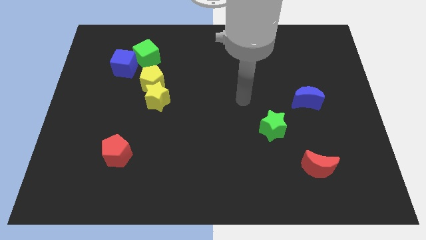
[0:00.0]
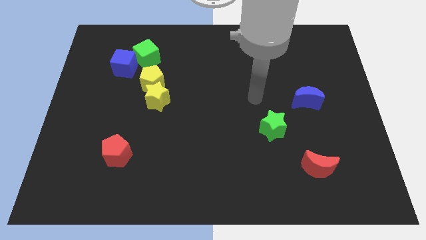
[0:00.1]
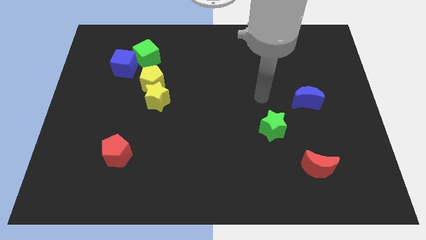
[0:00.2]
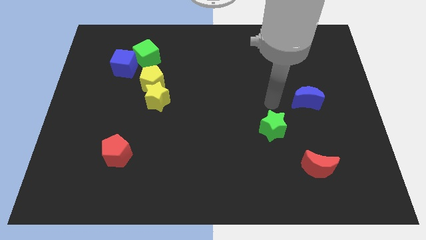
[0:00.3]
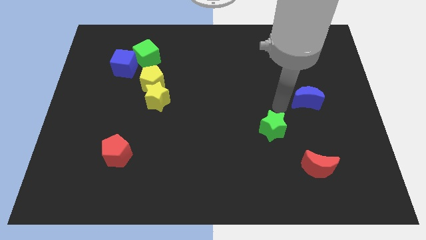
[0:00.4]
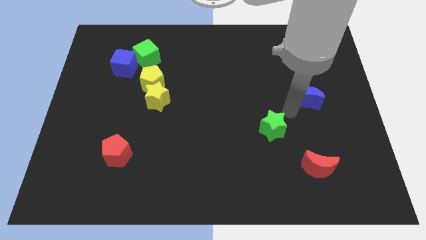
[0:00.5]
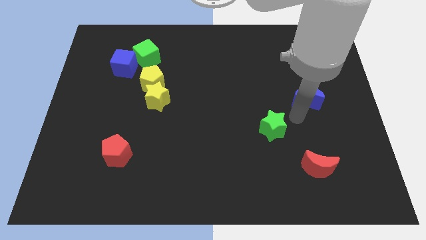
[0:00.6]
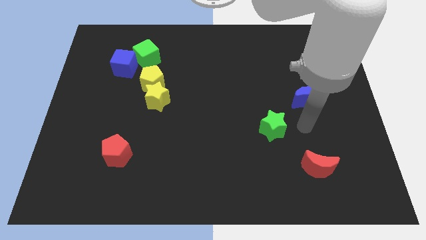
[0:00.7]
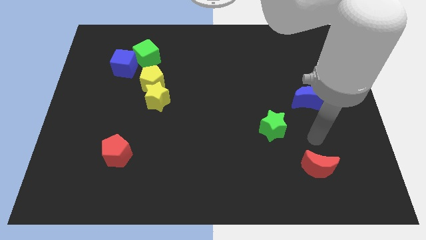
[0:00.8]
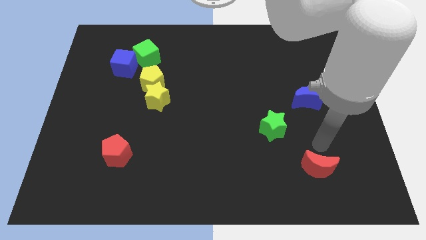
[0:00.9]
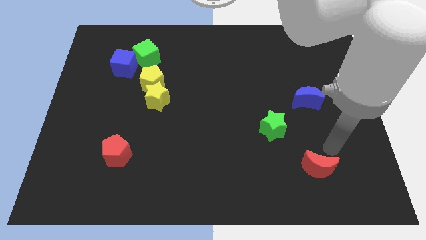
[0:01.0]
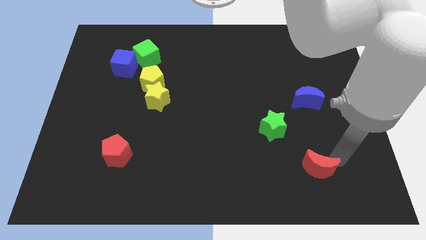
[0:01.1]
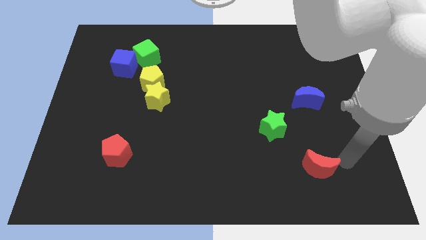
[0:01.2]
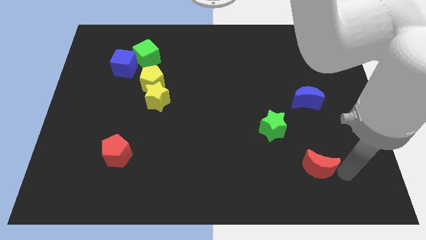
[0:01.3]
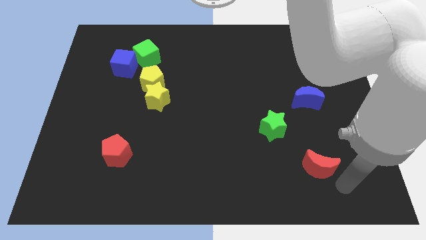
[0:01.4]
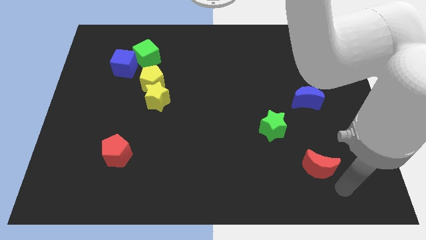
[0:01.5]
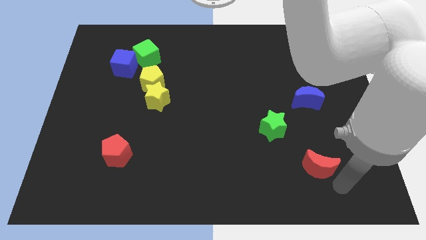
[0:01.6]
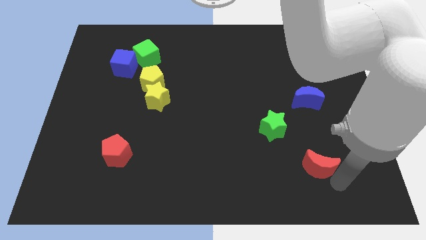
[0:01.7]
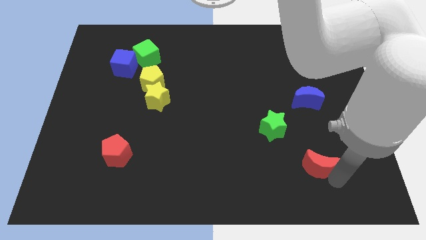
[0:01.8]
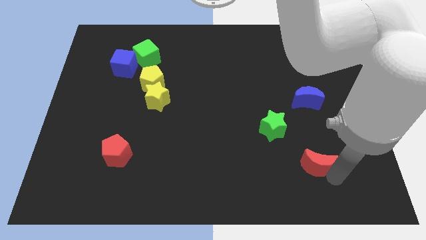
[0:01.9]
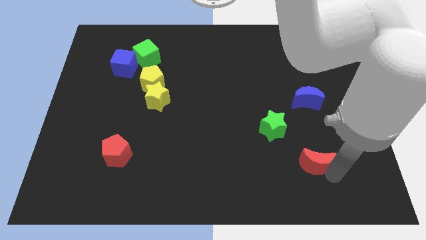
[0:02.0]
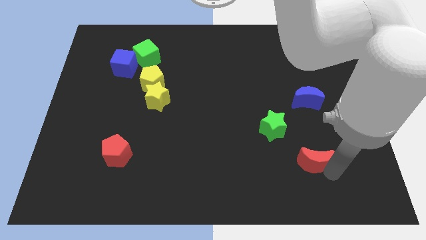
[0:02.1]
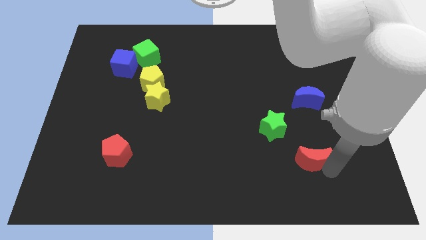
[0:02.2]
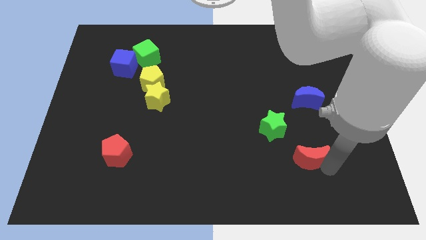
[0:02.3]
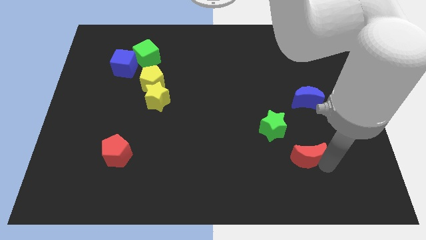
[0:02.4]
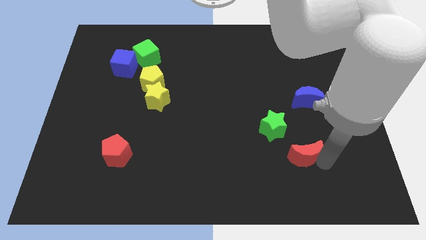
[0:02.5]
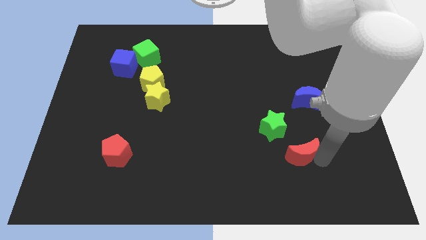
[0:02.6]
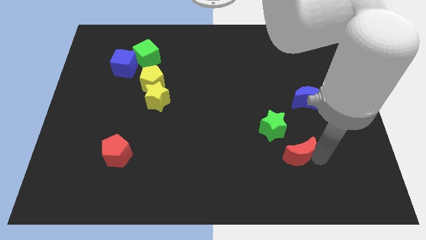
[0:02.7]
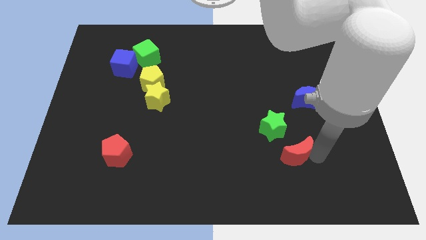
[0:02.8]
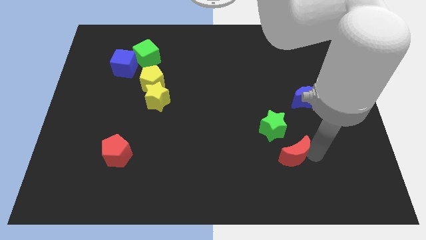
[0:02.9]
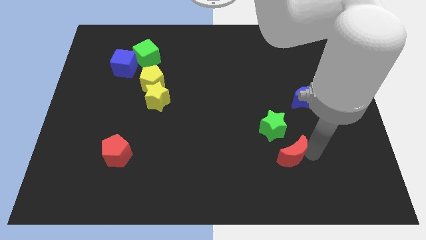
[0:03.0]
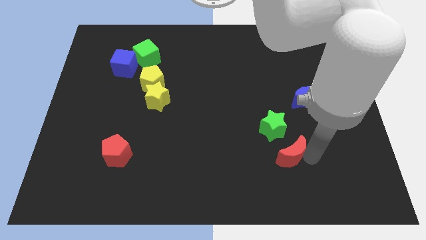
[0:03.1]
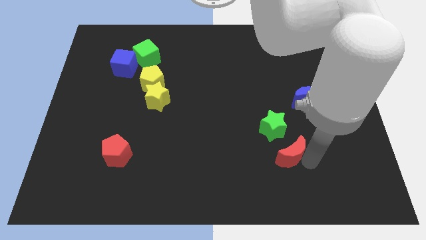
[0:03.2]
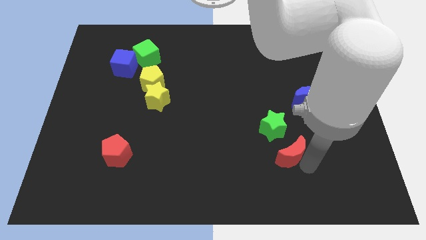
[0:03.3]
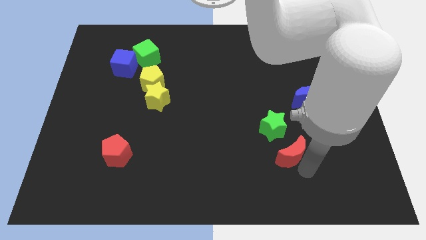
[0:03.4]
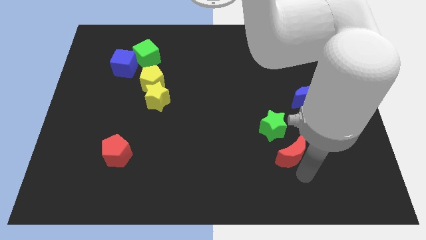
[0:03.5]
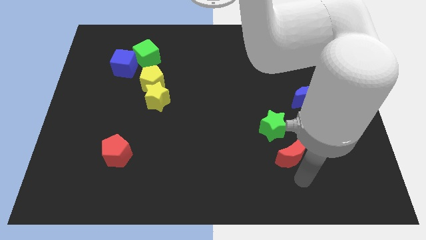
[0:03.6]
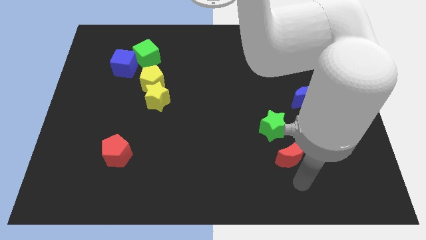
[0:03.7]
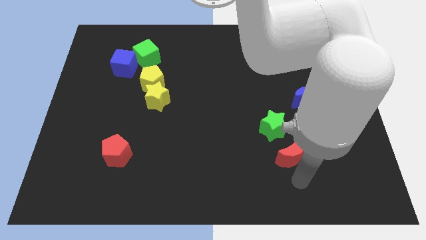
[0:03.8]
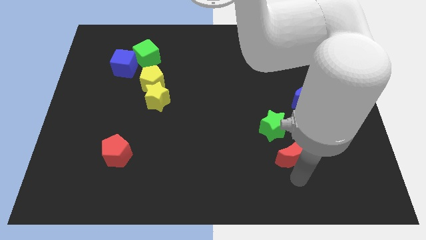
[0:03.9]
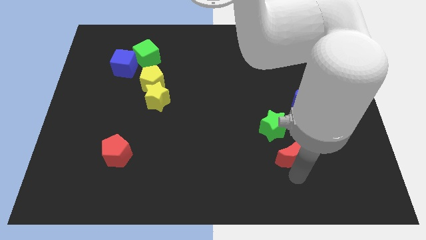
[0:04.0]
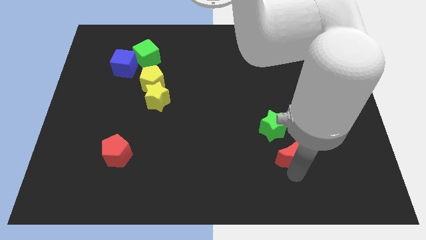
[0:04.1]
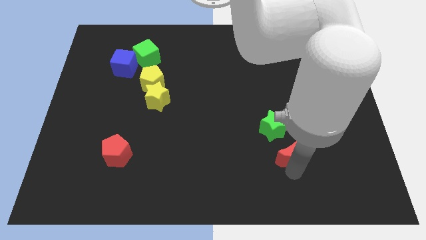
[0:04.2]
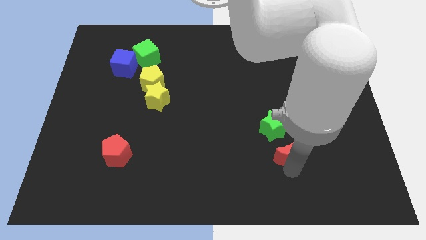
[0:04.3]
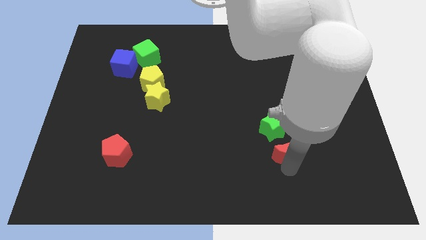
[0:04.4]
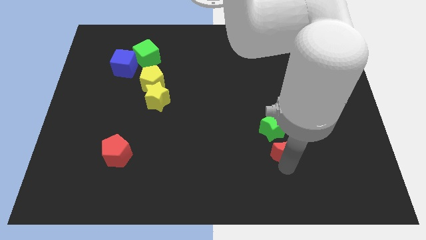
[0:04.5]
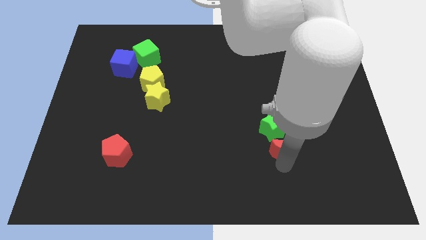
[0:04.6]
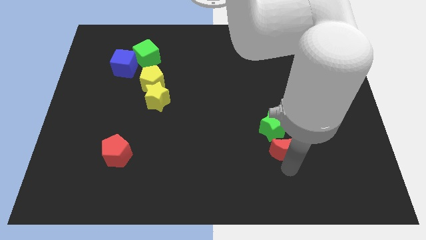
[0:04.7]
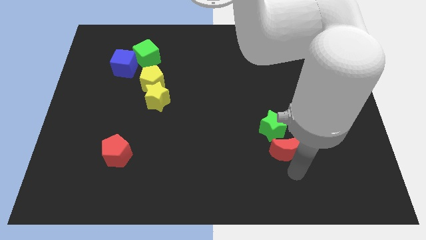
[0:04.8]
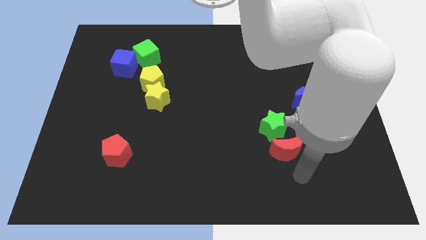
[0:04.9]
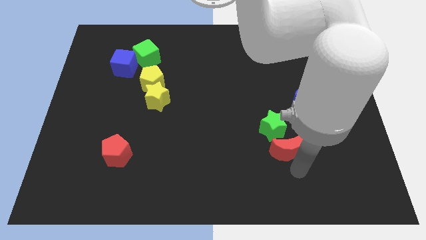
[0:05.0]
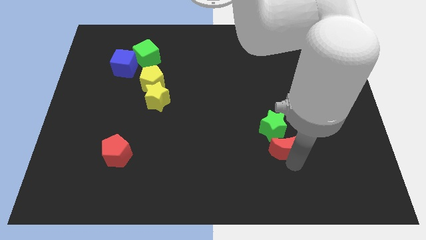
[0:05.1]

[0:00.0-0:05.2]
slide the red moon to the green star

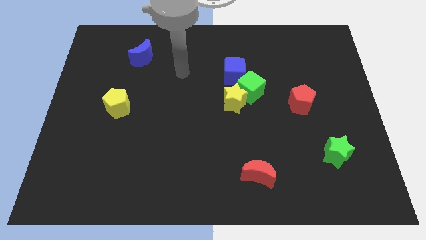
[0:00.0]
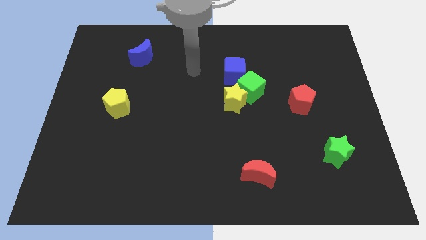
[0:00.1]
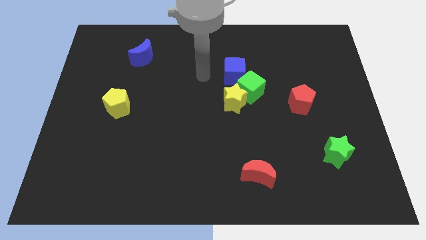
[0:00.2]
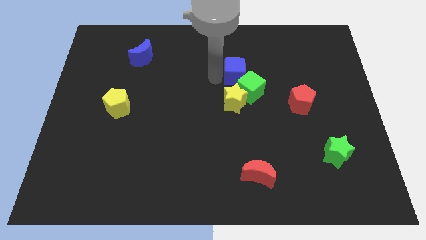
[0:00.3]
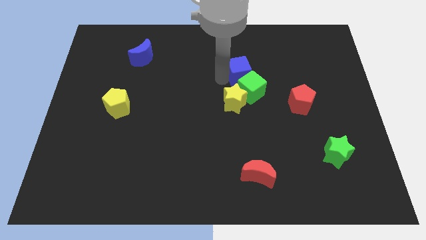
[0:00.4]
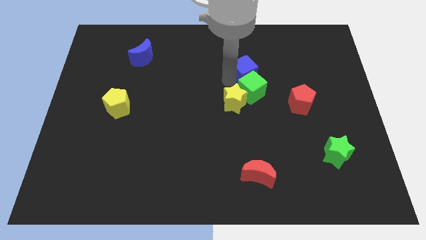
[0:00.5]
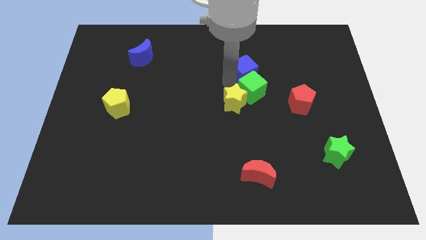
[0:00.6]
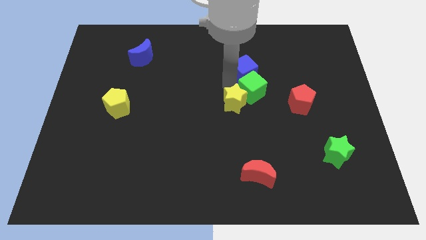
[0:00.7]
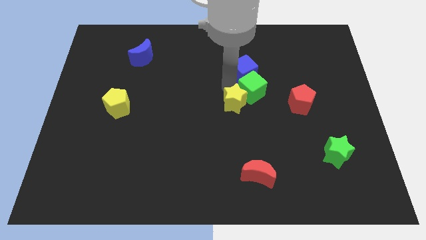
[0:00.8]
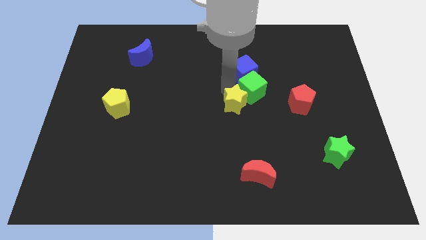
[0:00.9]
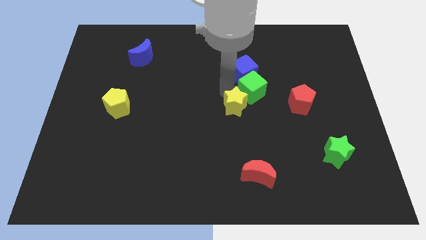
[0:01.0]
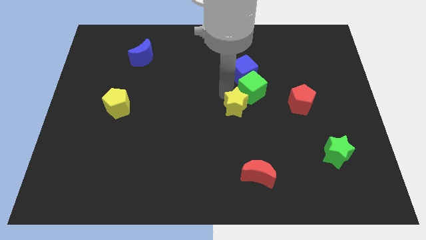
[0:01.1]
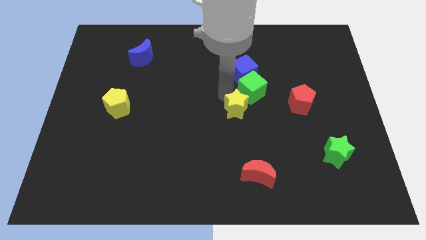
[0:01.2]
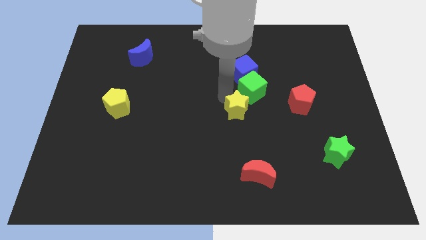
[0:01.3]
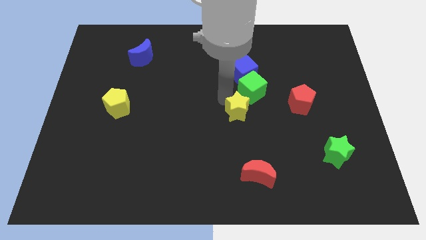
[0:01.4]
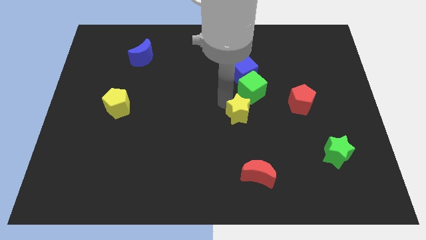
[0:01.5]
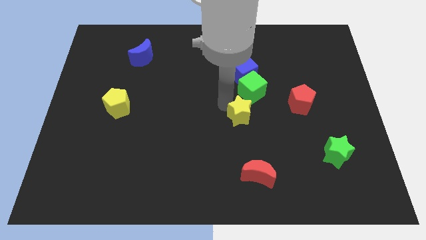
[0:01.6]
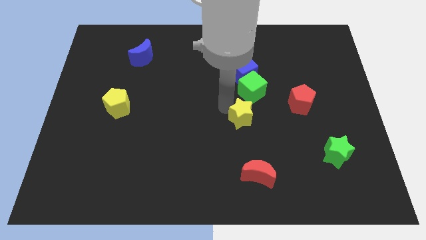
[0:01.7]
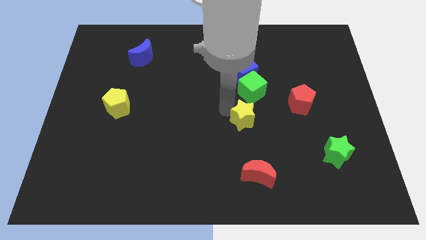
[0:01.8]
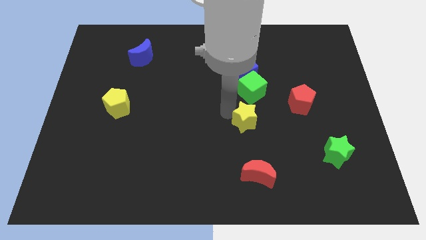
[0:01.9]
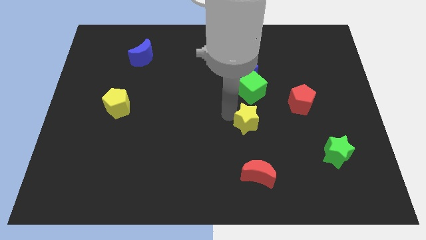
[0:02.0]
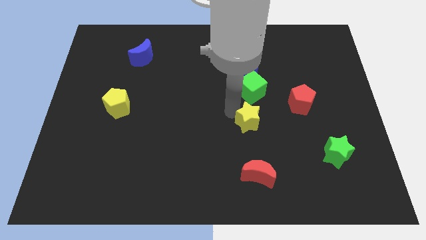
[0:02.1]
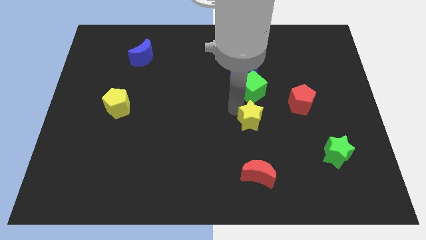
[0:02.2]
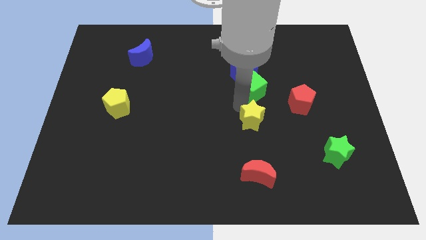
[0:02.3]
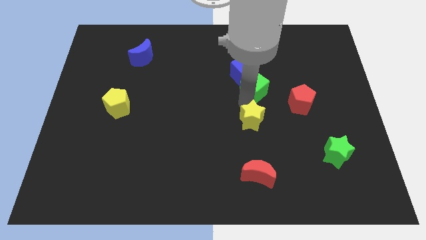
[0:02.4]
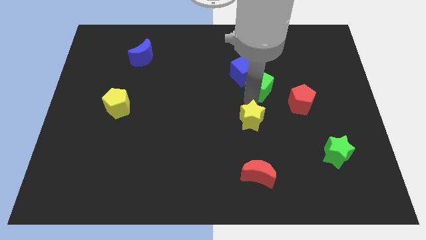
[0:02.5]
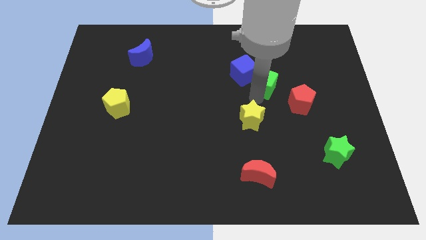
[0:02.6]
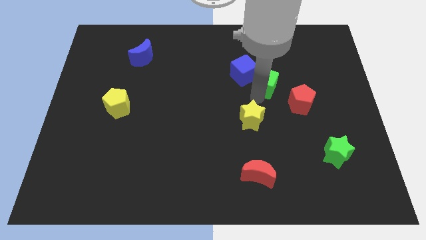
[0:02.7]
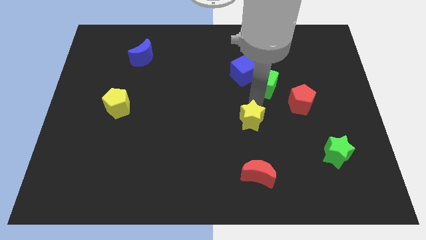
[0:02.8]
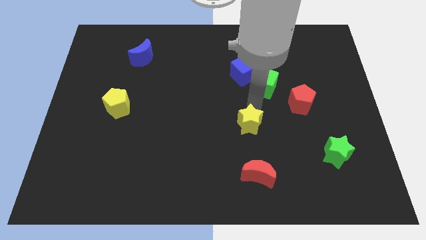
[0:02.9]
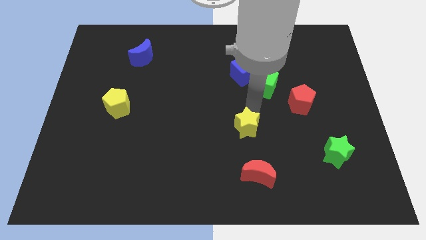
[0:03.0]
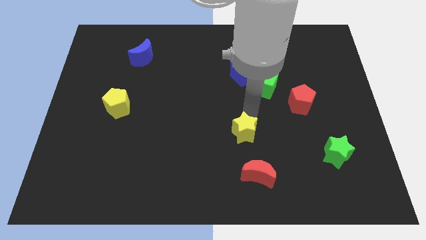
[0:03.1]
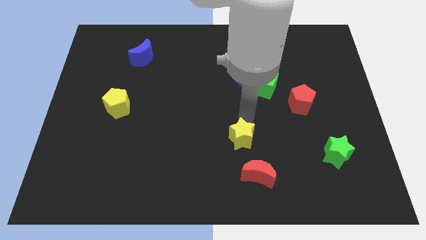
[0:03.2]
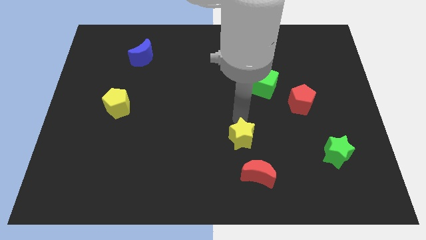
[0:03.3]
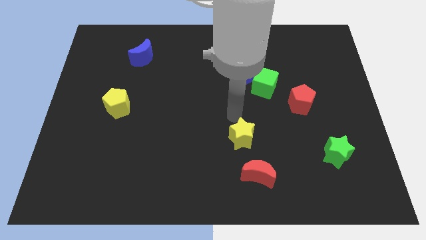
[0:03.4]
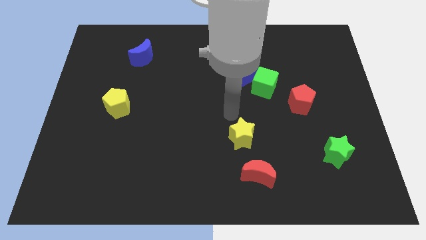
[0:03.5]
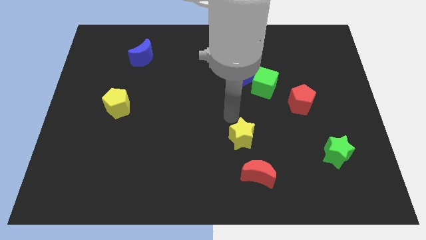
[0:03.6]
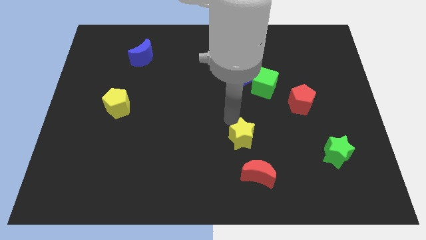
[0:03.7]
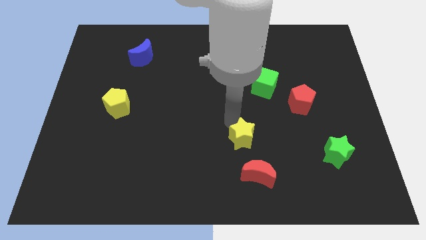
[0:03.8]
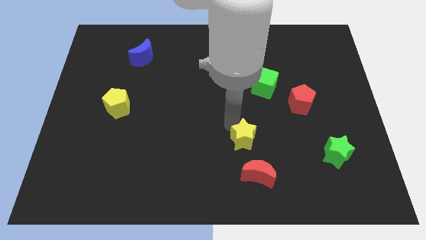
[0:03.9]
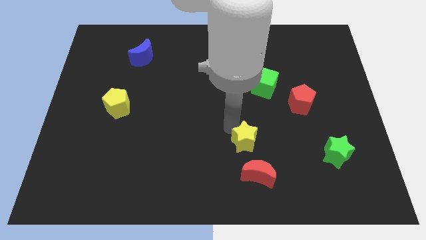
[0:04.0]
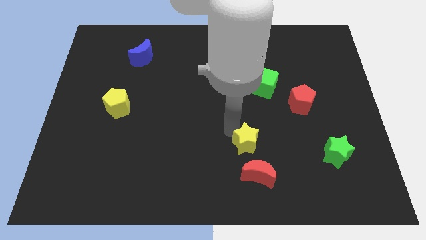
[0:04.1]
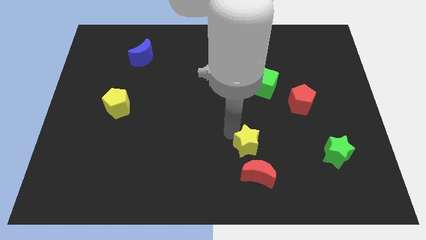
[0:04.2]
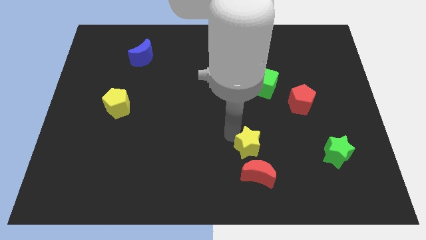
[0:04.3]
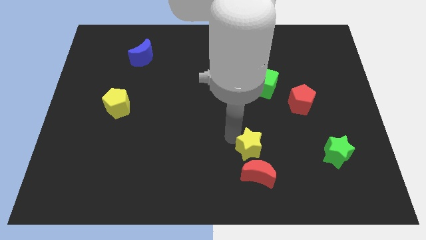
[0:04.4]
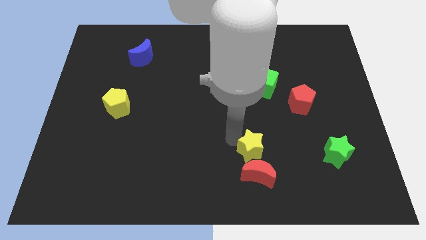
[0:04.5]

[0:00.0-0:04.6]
put the yellow star towards the red moon
